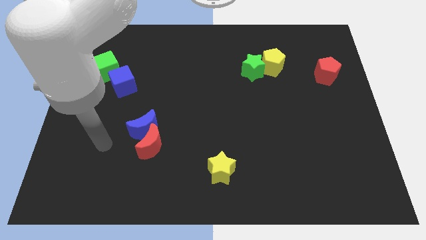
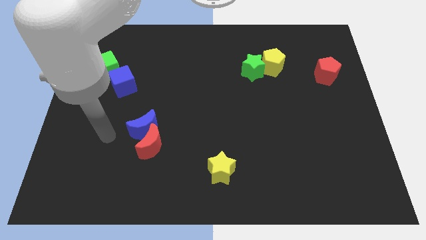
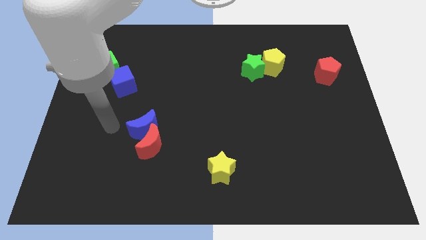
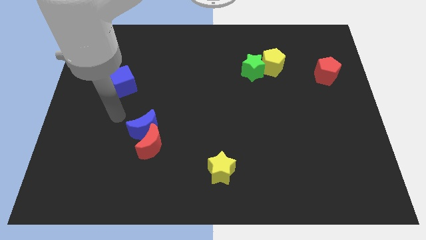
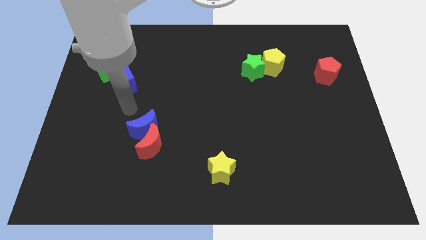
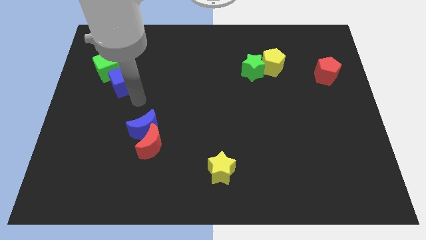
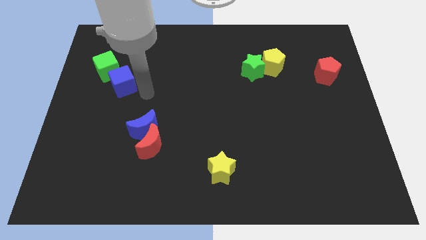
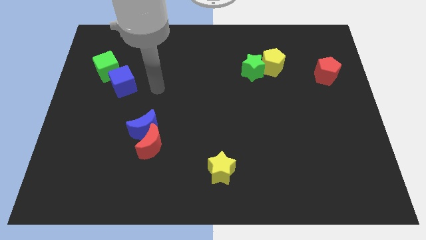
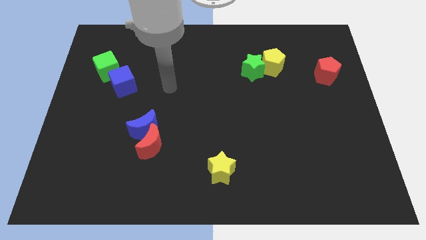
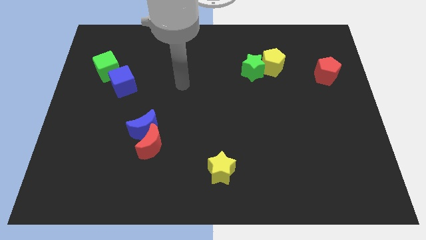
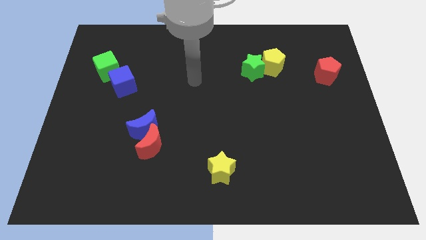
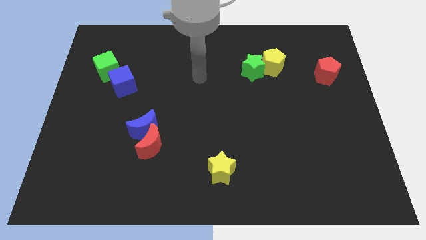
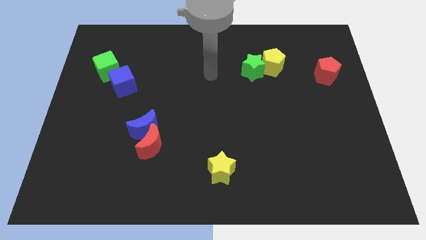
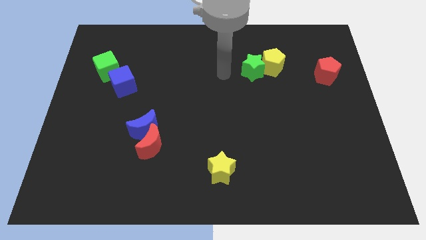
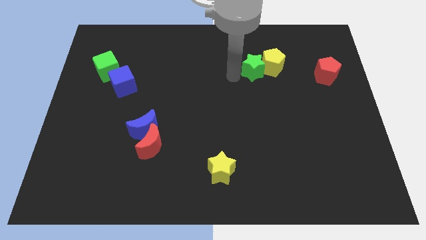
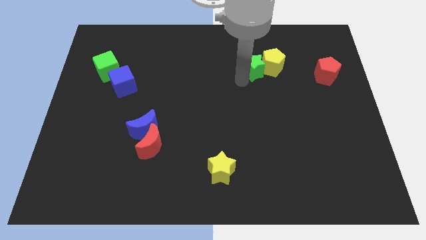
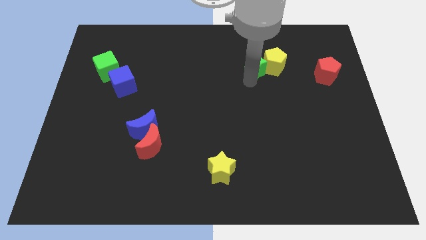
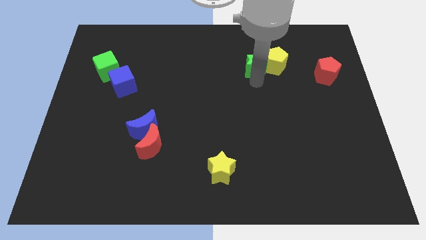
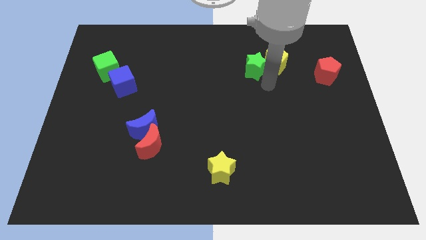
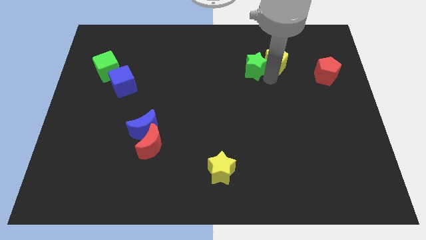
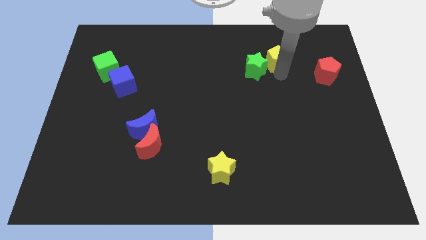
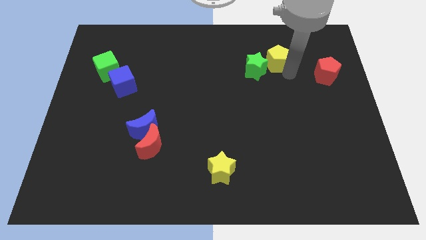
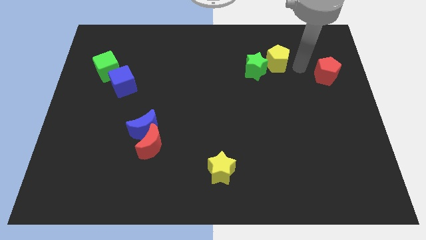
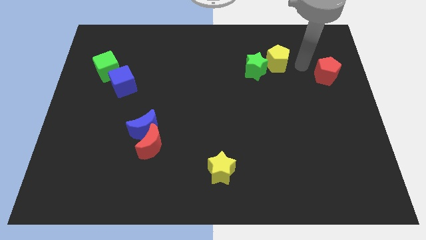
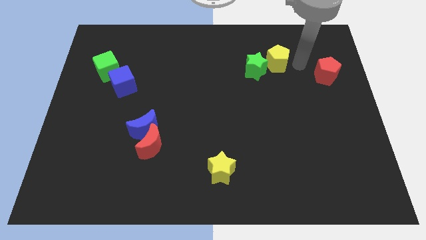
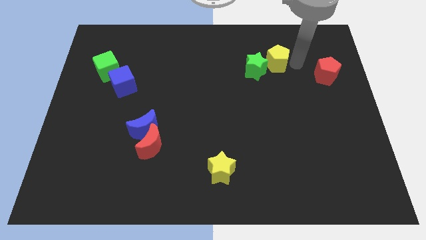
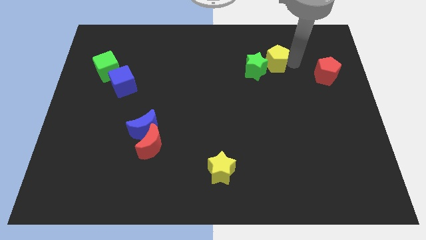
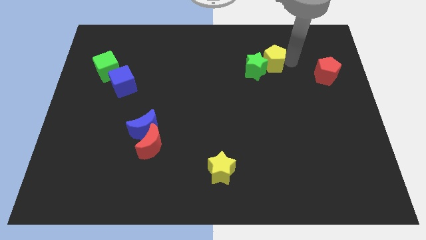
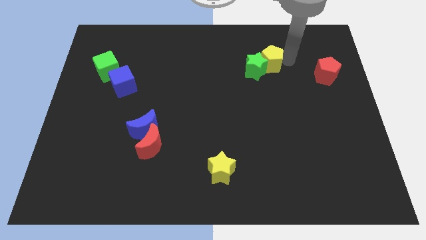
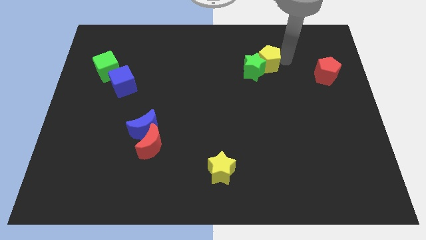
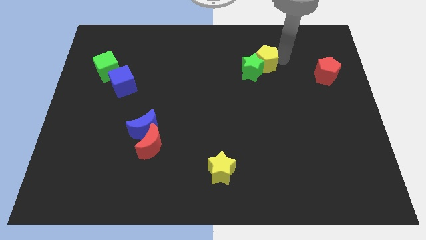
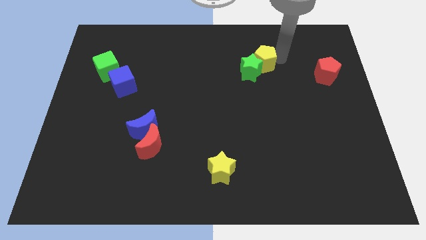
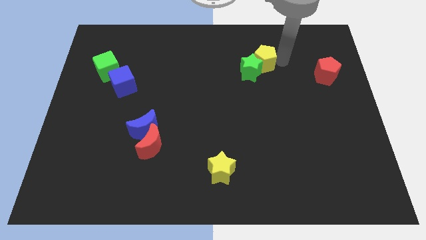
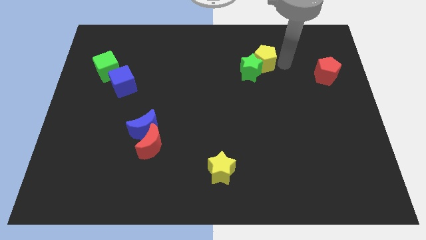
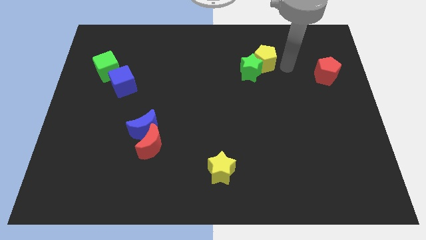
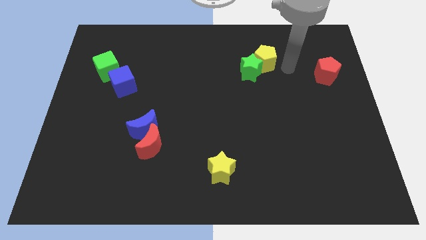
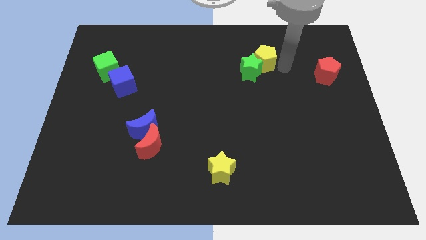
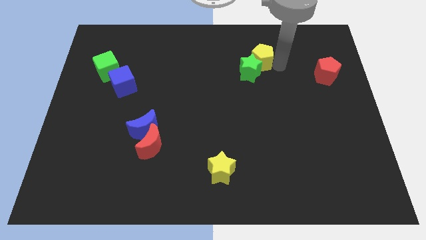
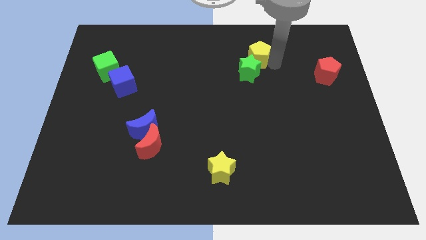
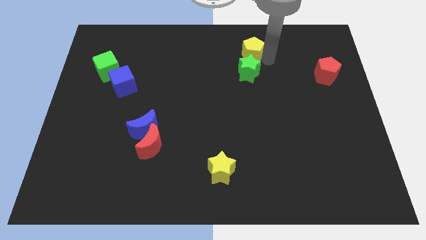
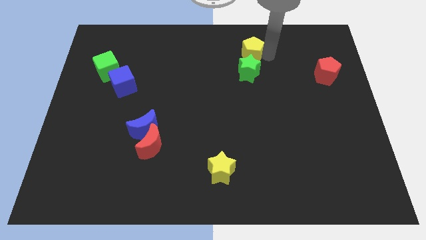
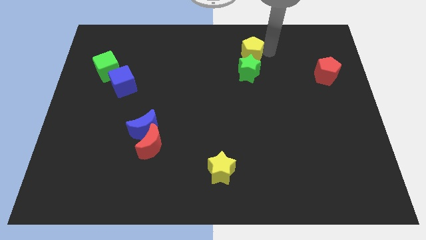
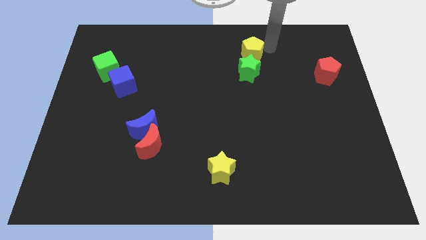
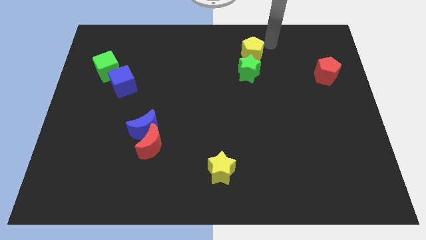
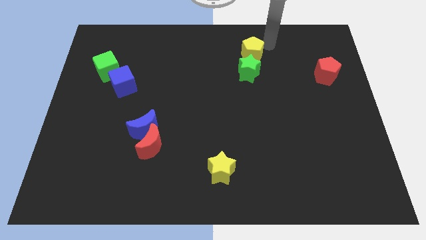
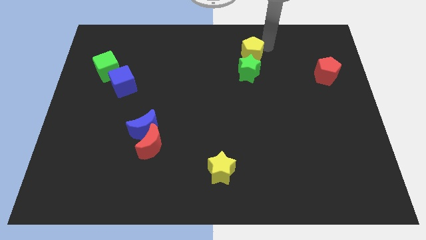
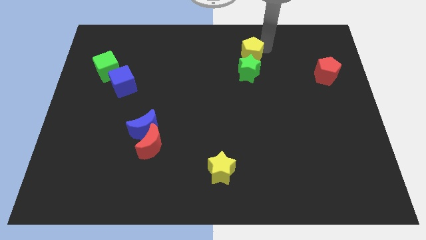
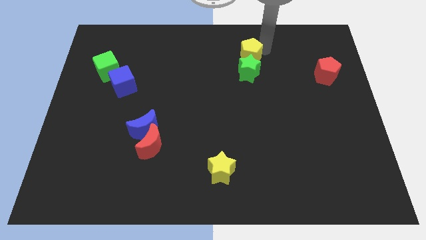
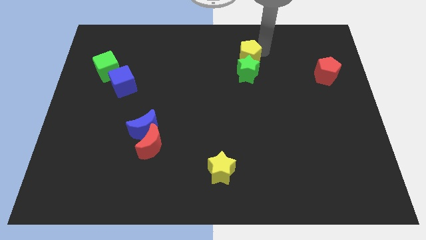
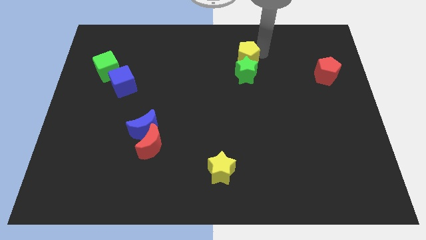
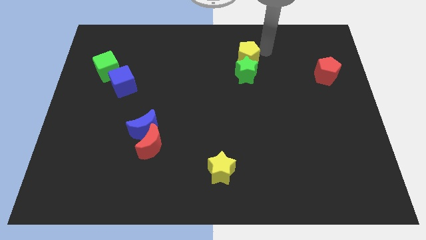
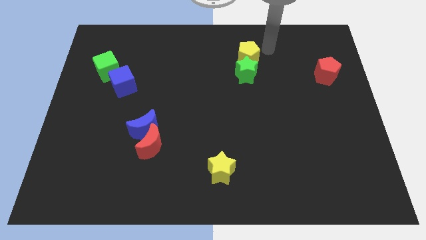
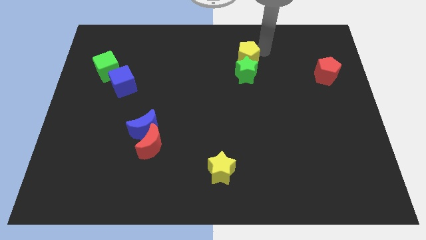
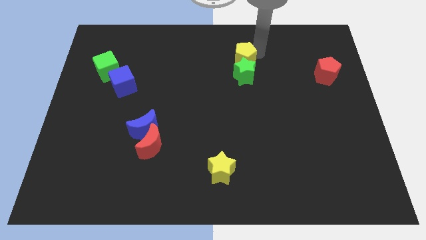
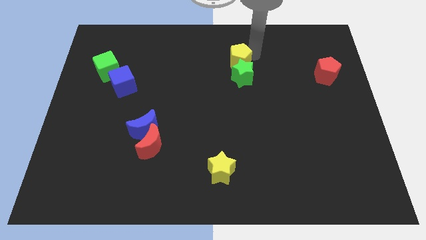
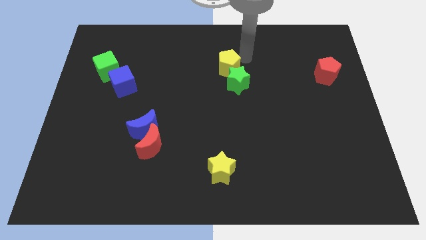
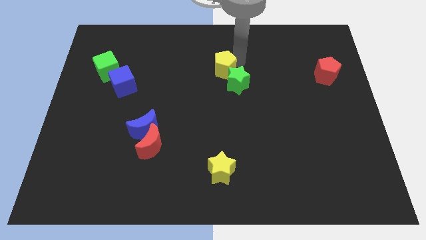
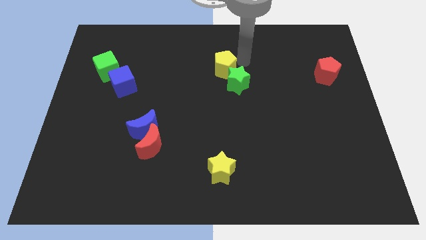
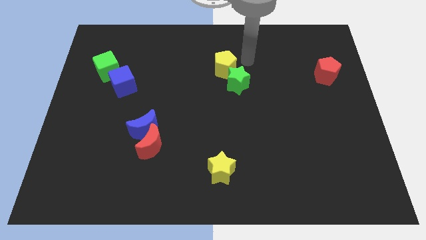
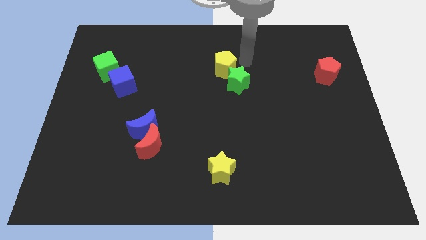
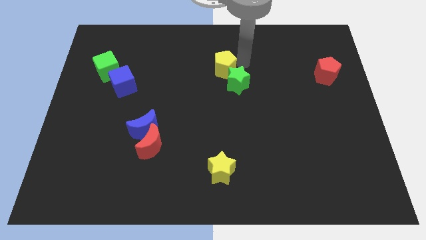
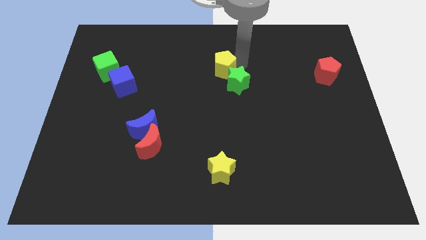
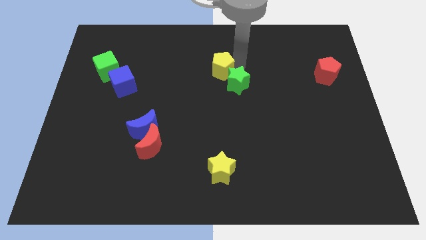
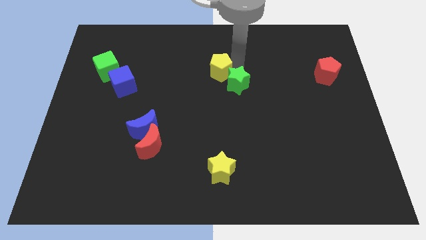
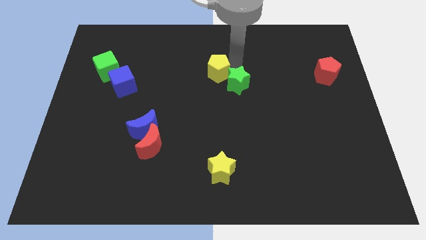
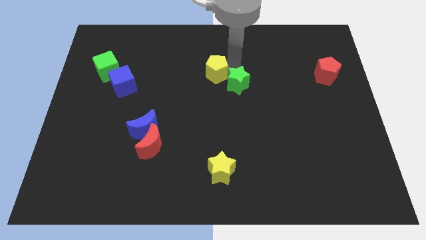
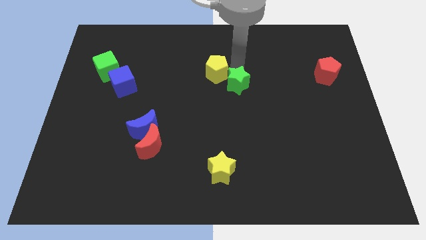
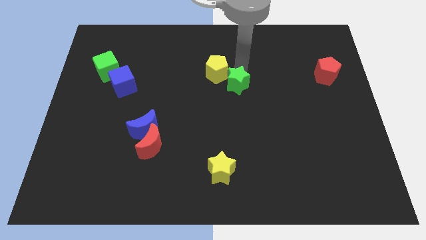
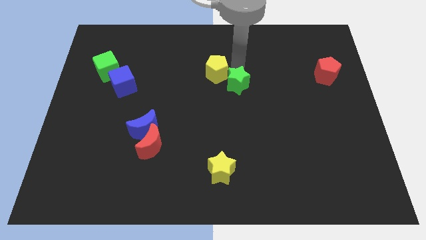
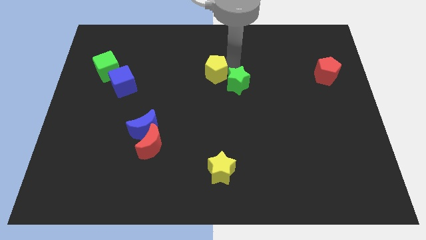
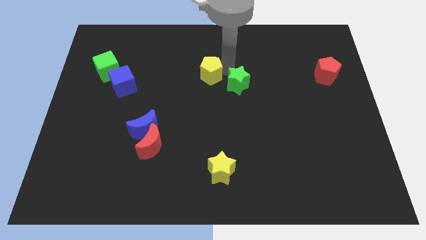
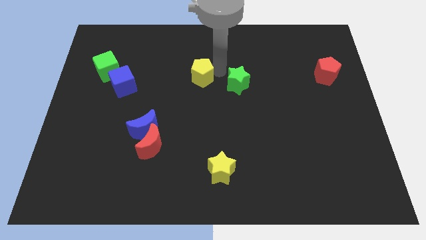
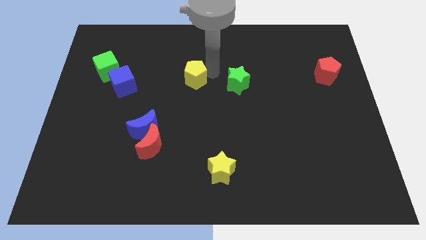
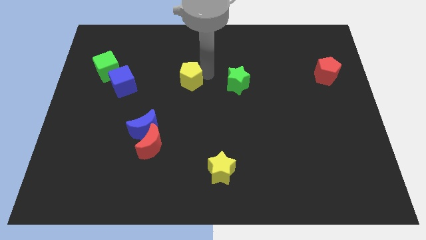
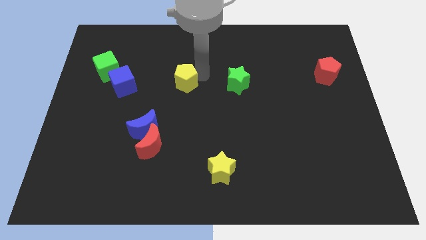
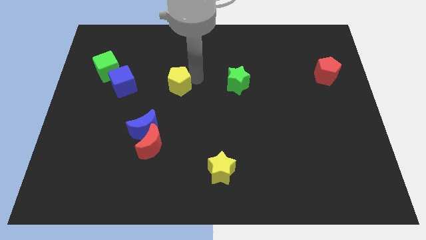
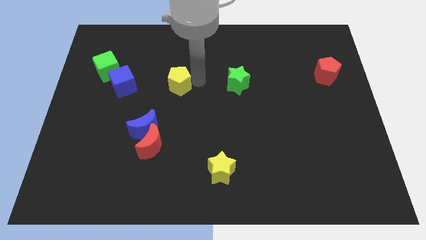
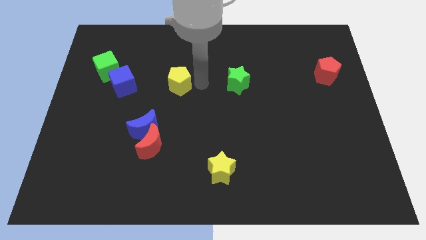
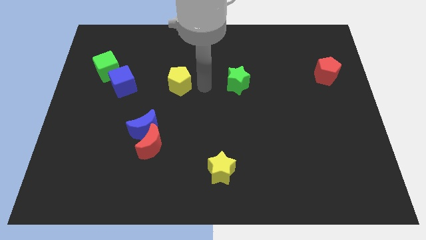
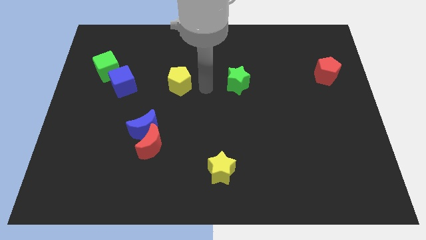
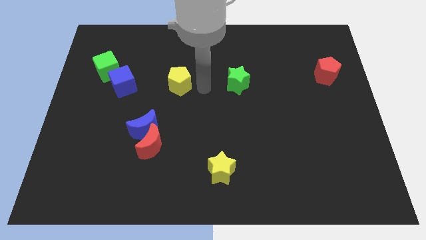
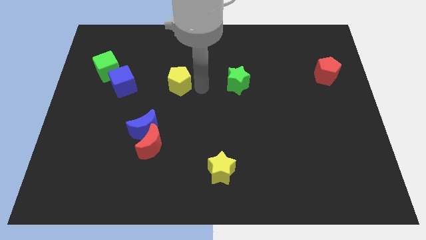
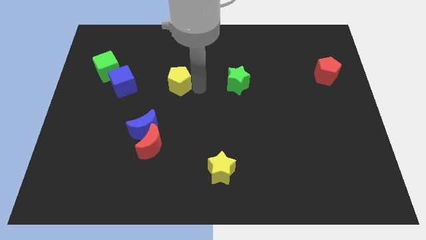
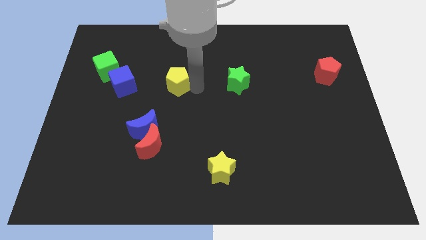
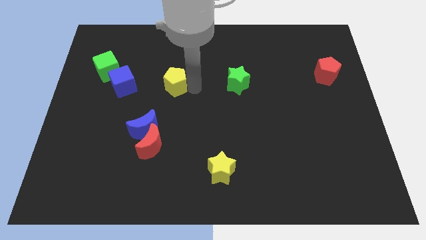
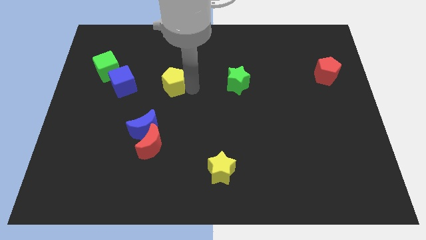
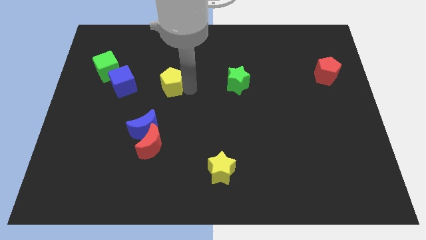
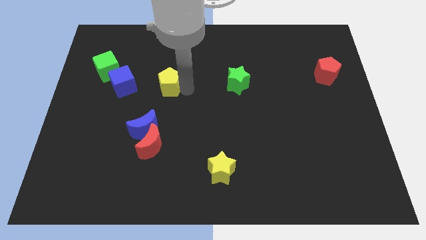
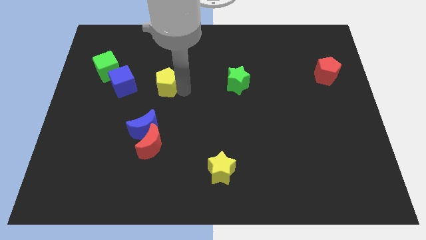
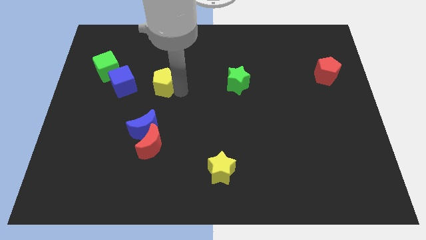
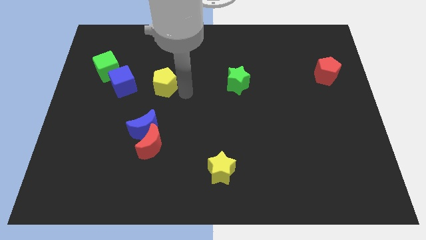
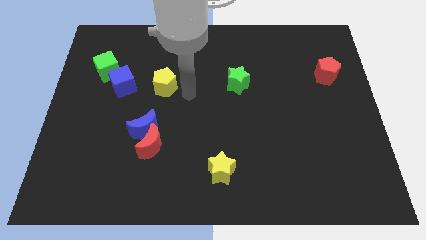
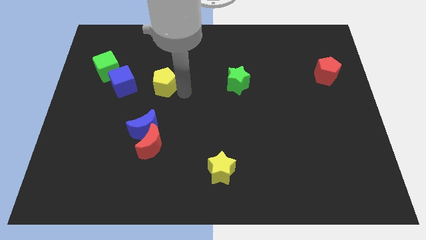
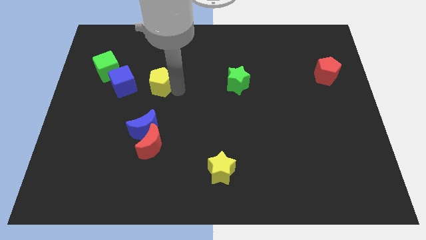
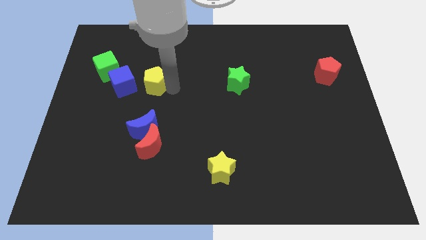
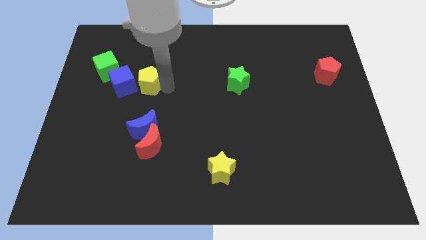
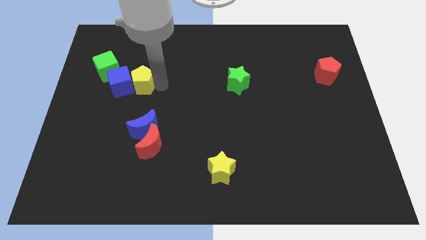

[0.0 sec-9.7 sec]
push the yellow pentagon to the blue cube
